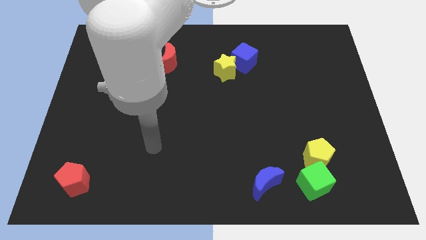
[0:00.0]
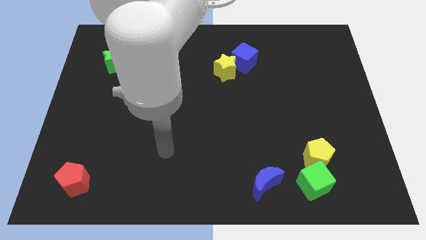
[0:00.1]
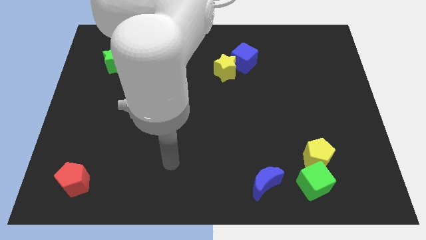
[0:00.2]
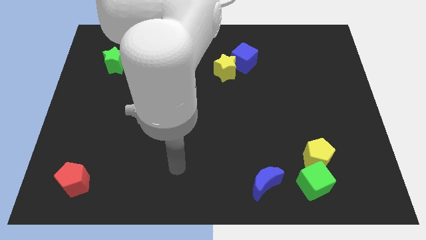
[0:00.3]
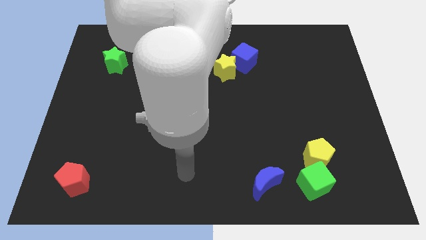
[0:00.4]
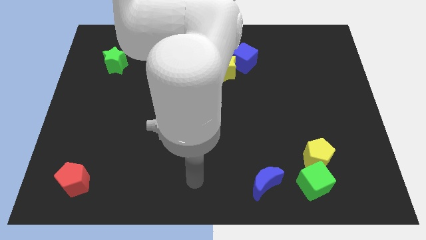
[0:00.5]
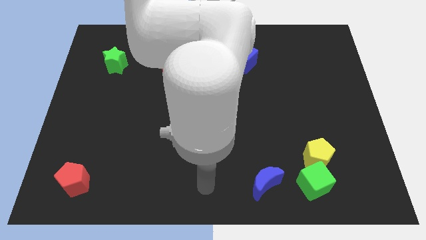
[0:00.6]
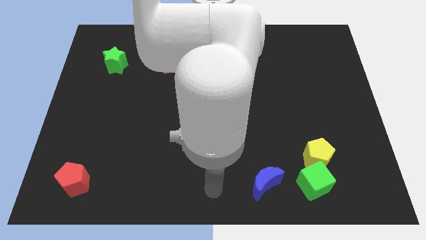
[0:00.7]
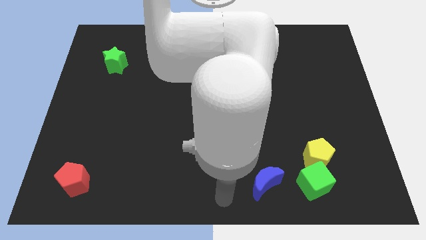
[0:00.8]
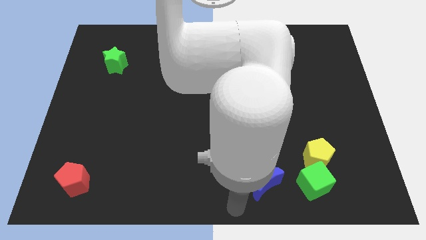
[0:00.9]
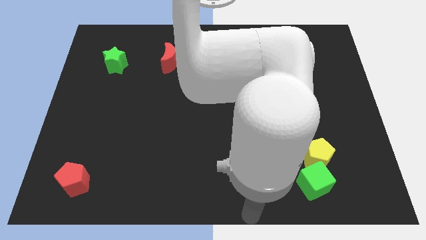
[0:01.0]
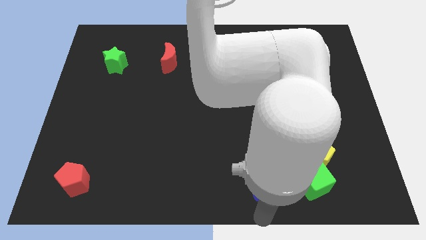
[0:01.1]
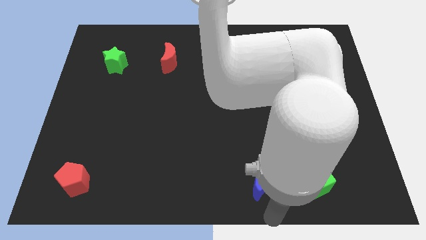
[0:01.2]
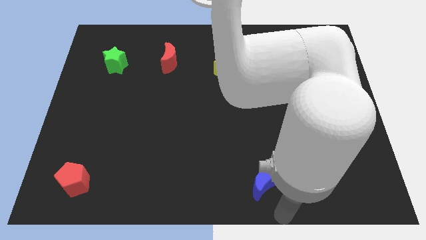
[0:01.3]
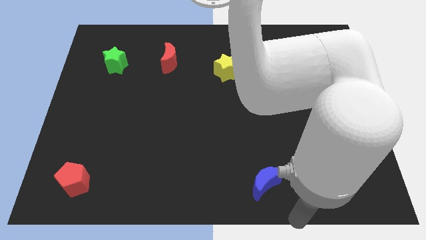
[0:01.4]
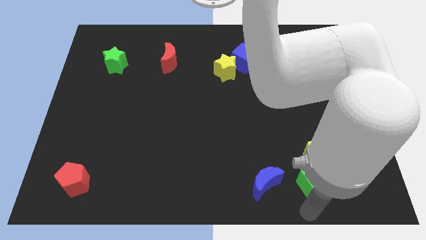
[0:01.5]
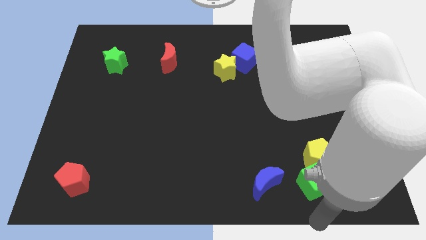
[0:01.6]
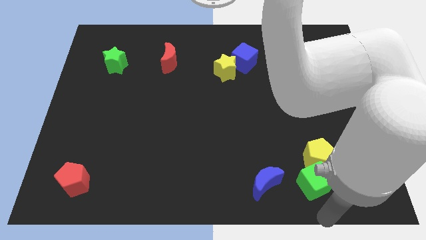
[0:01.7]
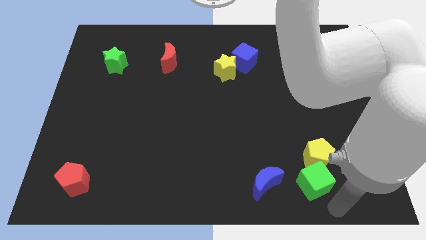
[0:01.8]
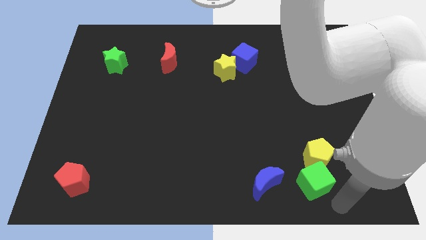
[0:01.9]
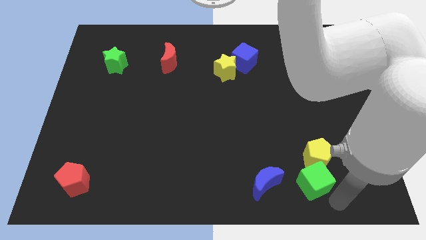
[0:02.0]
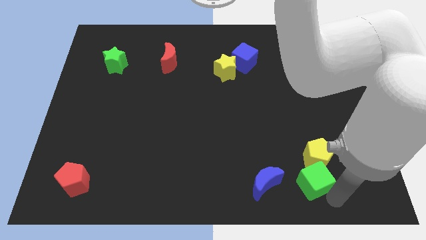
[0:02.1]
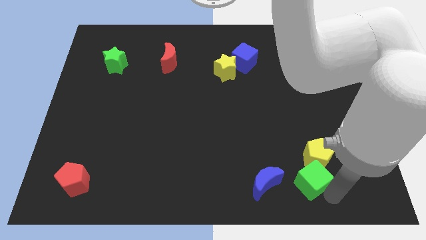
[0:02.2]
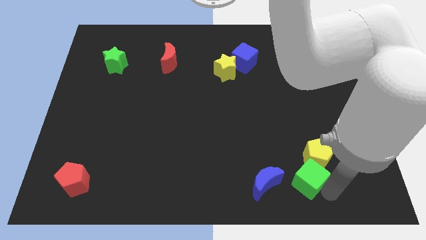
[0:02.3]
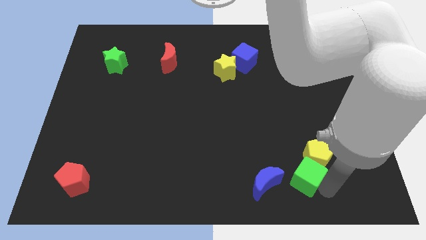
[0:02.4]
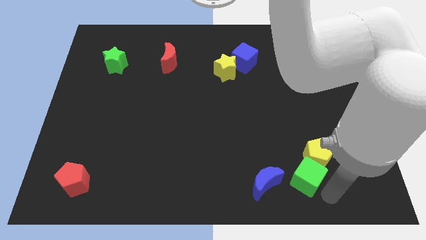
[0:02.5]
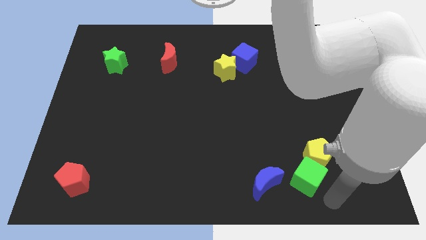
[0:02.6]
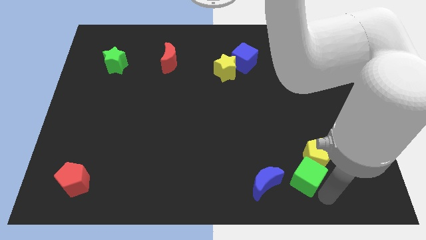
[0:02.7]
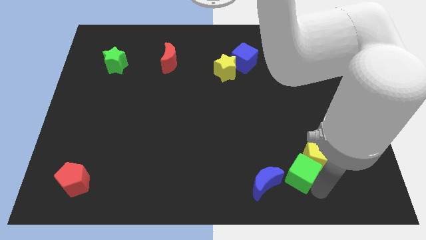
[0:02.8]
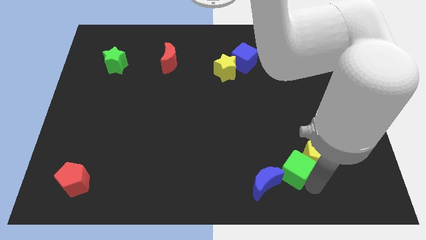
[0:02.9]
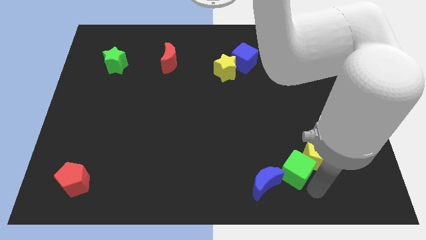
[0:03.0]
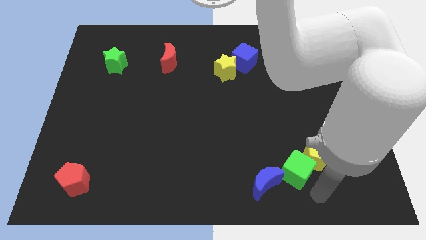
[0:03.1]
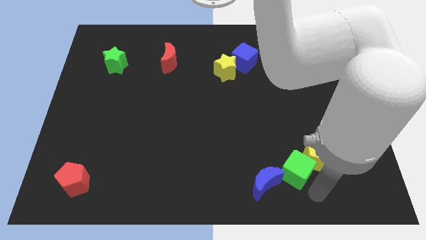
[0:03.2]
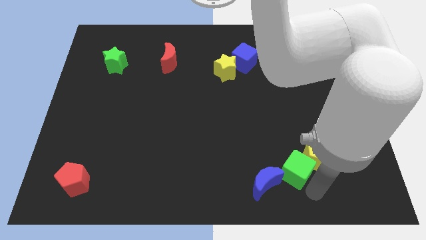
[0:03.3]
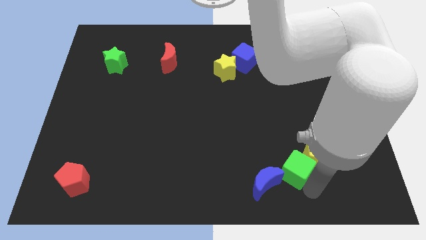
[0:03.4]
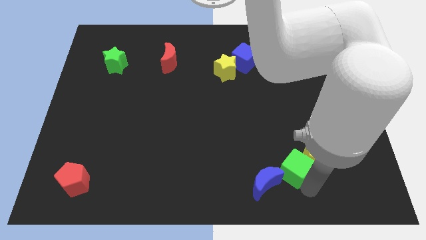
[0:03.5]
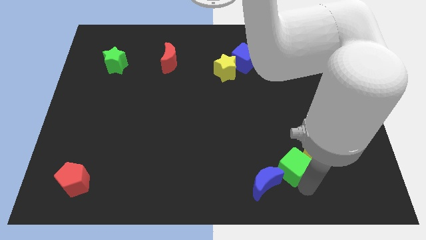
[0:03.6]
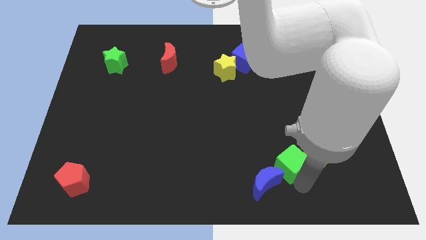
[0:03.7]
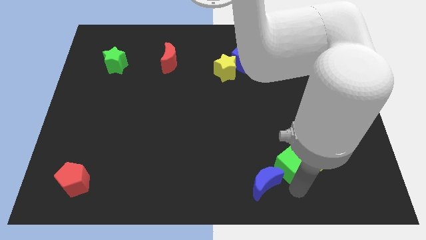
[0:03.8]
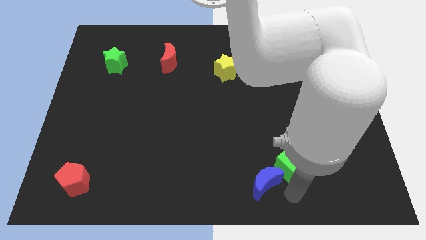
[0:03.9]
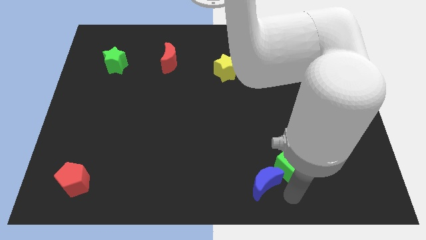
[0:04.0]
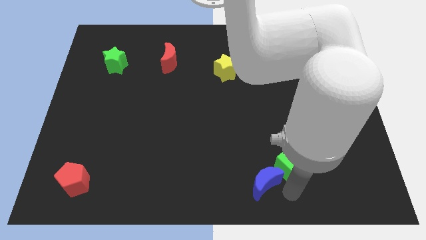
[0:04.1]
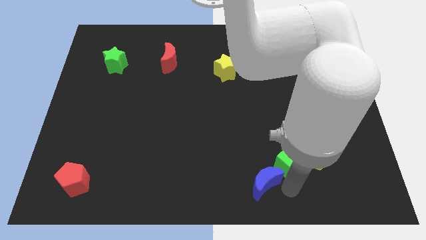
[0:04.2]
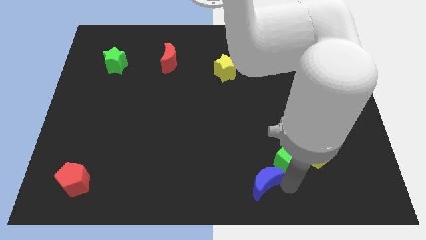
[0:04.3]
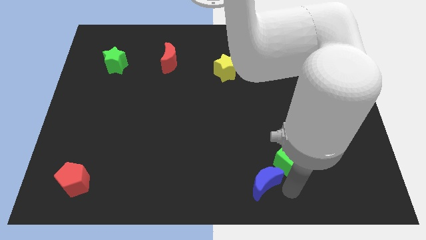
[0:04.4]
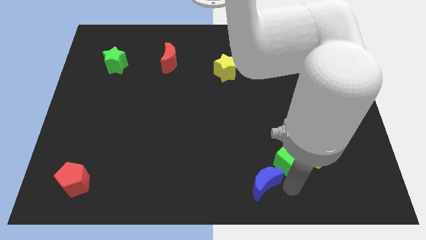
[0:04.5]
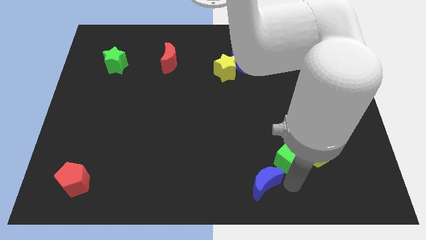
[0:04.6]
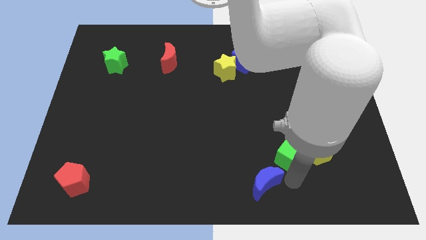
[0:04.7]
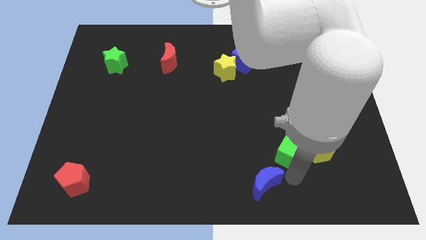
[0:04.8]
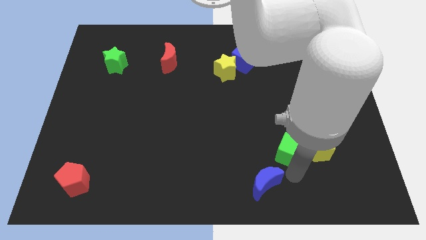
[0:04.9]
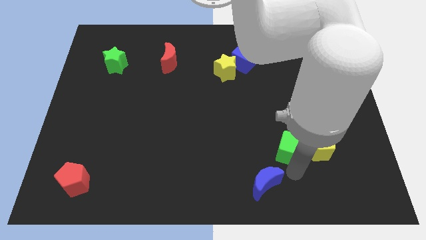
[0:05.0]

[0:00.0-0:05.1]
move the green cube upwards somewhat

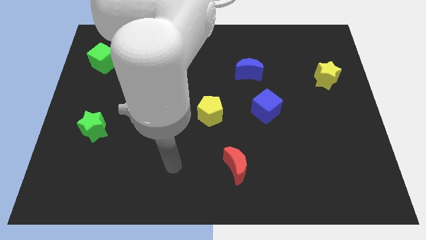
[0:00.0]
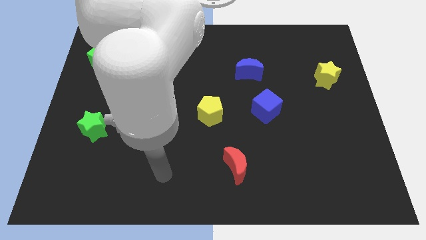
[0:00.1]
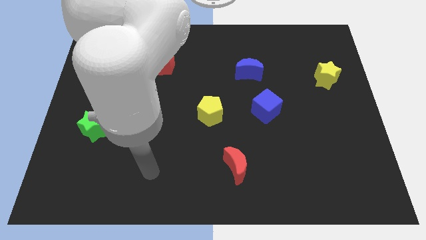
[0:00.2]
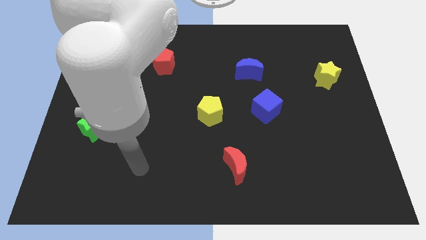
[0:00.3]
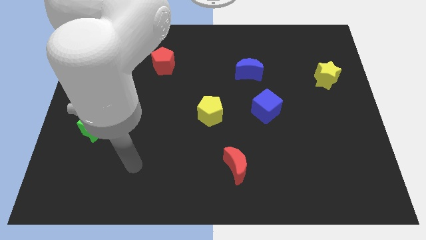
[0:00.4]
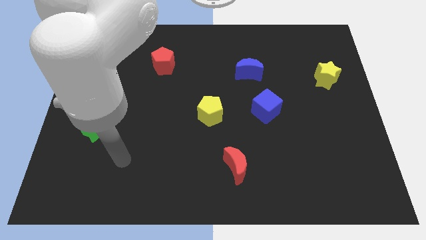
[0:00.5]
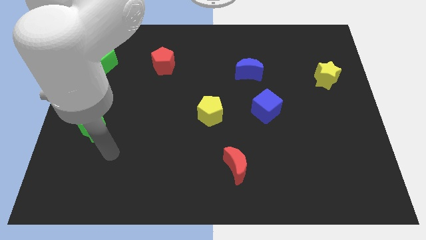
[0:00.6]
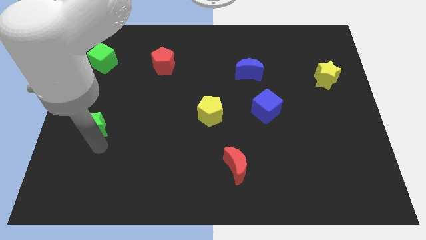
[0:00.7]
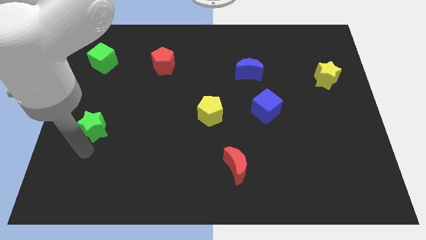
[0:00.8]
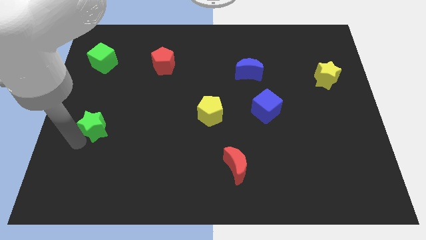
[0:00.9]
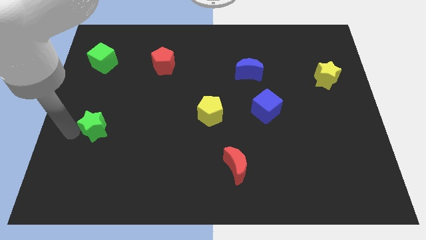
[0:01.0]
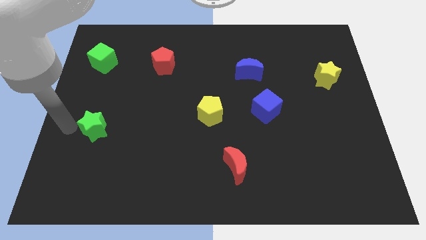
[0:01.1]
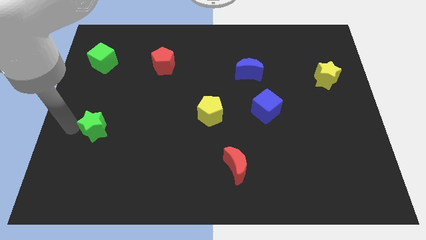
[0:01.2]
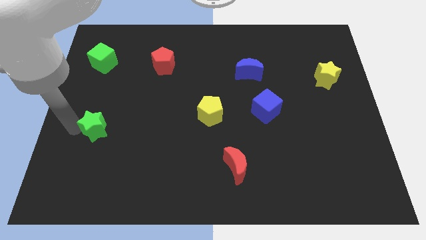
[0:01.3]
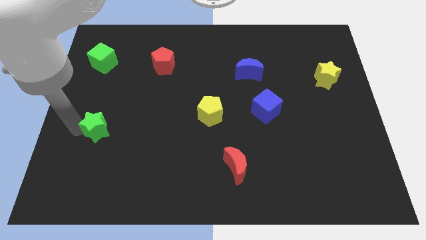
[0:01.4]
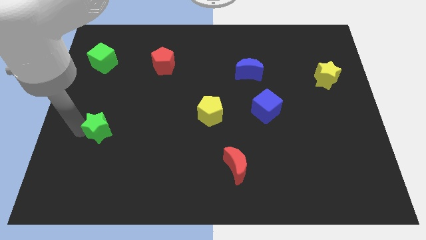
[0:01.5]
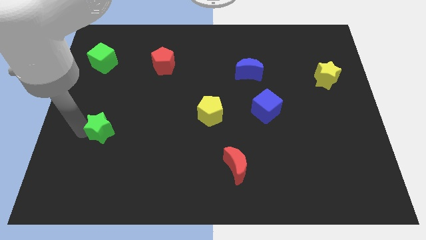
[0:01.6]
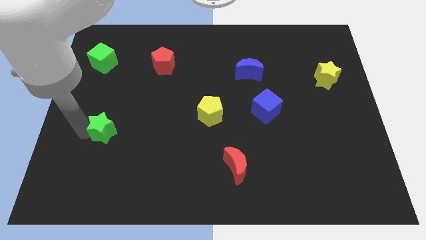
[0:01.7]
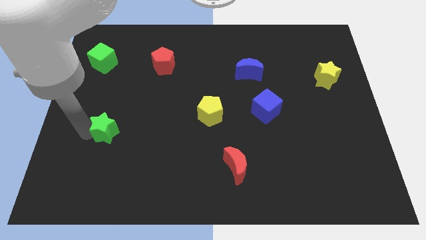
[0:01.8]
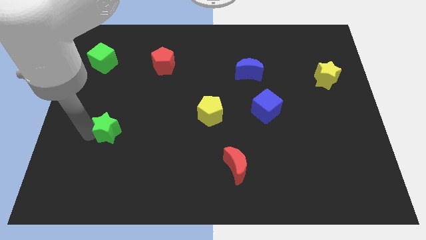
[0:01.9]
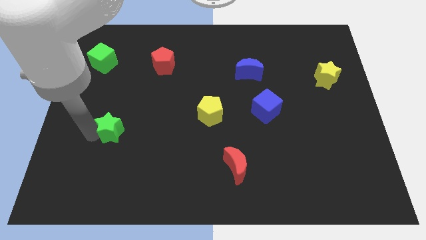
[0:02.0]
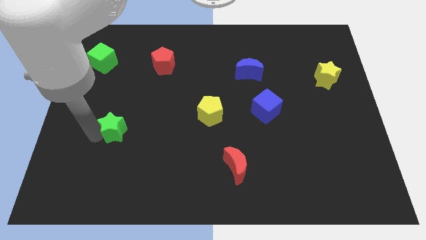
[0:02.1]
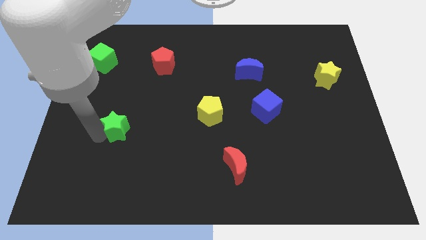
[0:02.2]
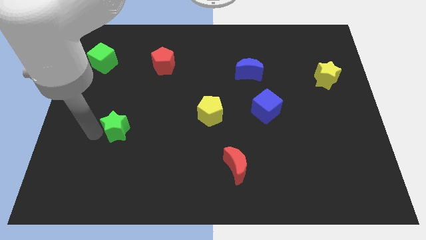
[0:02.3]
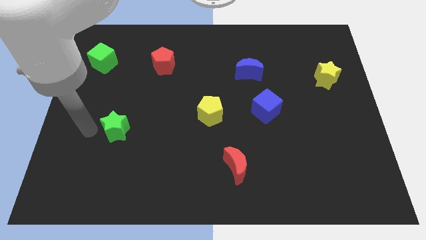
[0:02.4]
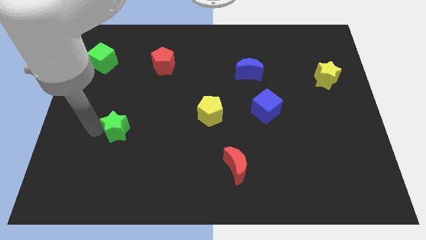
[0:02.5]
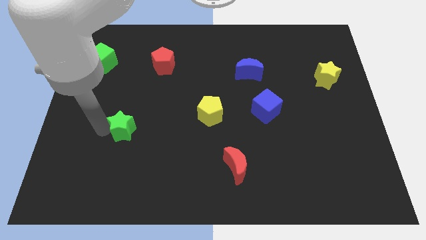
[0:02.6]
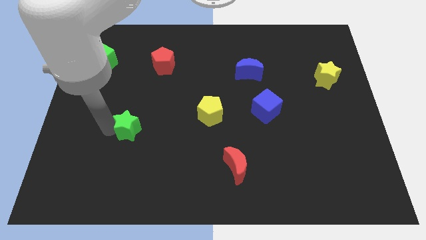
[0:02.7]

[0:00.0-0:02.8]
move the green star to the right a little
